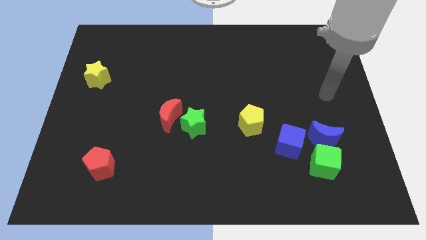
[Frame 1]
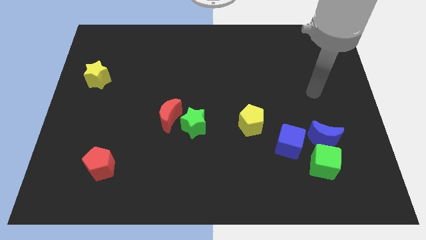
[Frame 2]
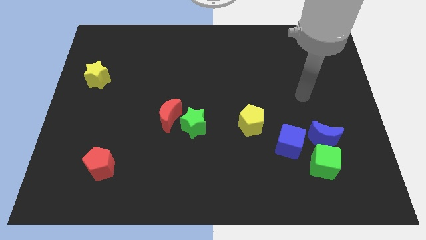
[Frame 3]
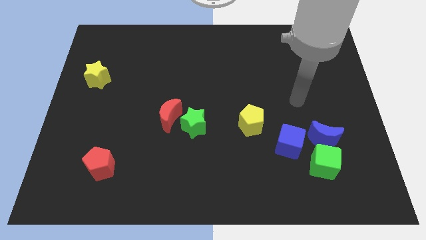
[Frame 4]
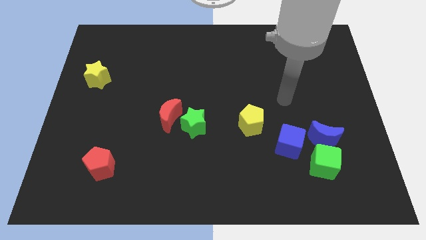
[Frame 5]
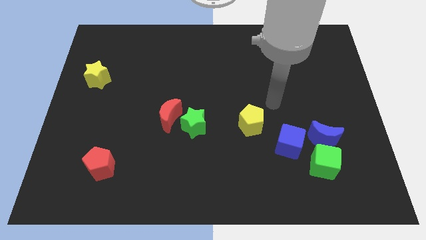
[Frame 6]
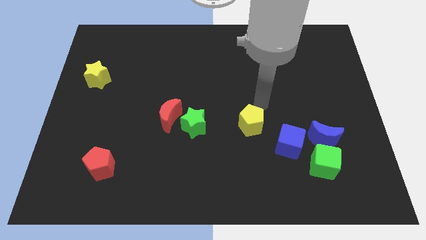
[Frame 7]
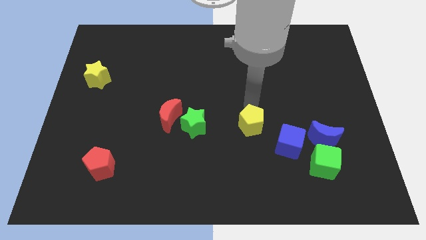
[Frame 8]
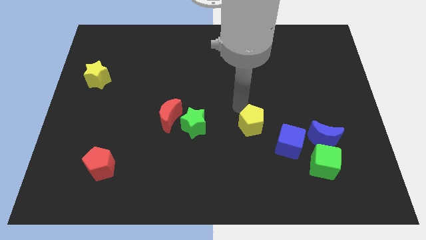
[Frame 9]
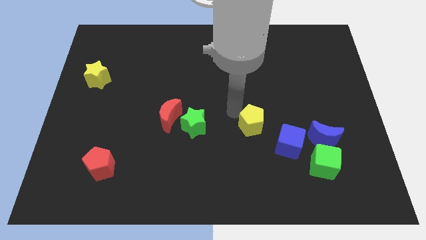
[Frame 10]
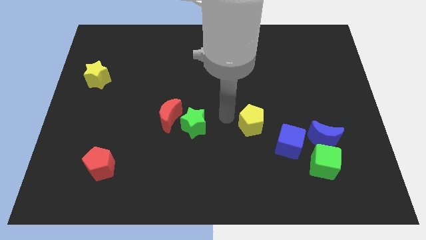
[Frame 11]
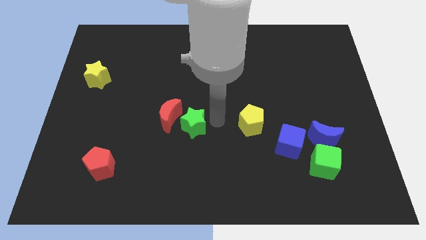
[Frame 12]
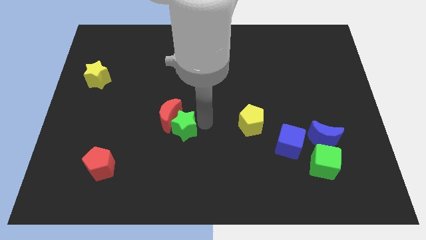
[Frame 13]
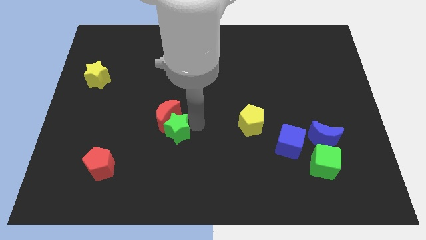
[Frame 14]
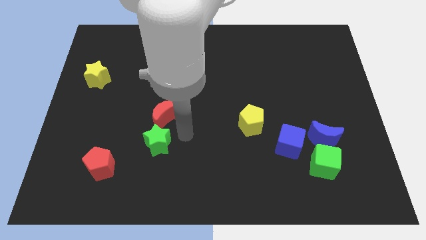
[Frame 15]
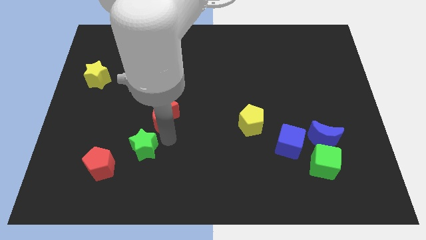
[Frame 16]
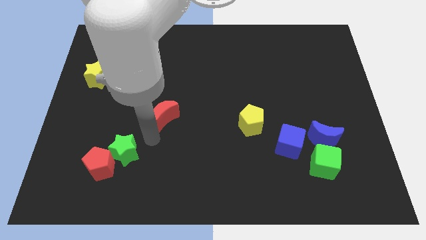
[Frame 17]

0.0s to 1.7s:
pull the red moon apart from the green star

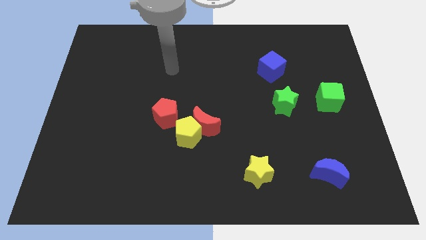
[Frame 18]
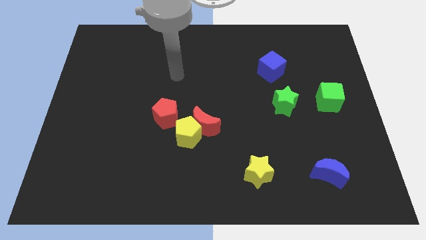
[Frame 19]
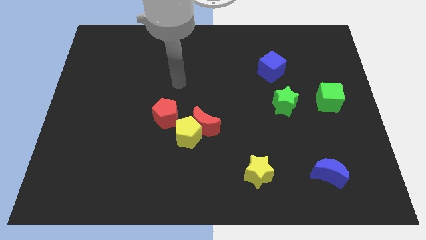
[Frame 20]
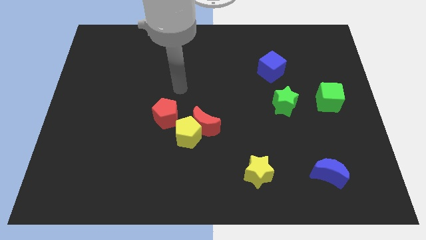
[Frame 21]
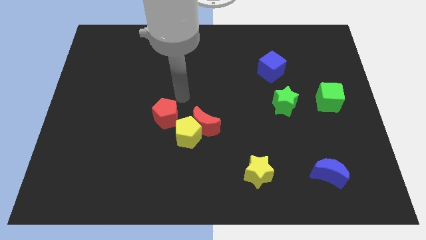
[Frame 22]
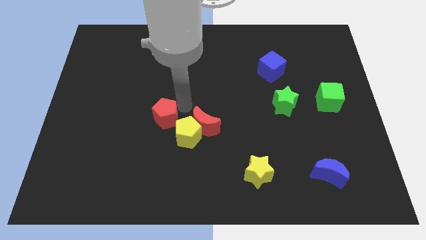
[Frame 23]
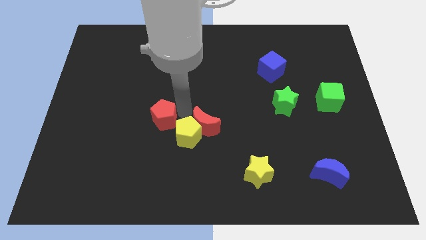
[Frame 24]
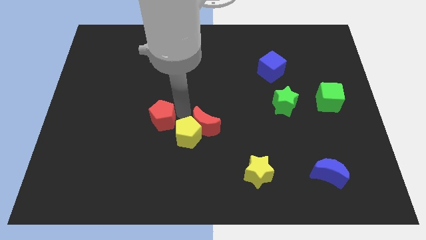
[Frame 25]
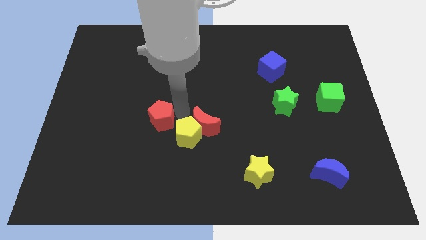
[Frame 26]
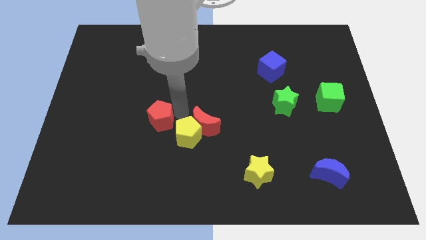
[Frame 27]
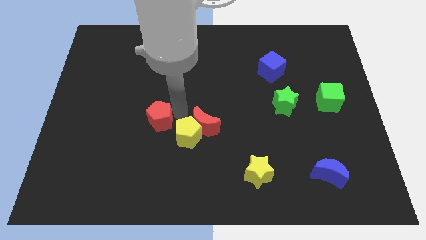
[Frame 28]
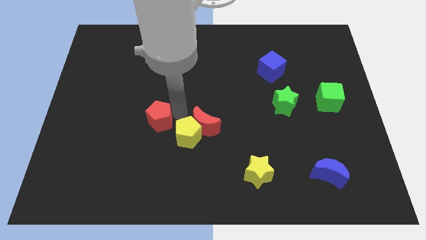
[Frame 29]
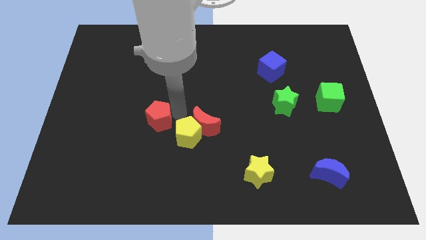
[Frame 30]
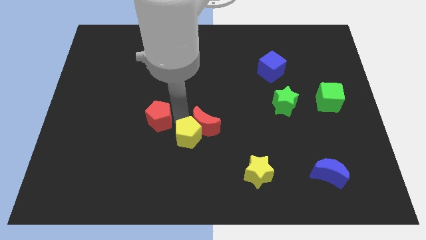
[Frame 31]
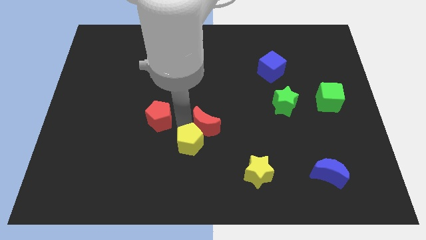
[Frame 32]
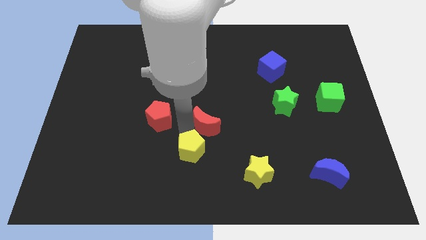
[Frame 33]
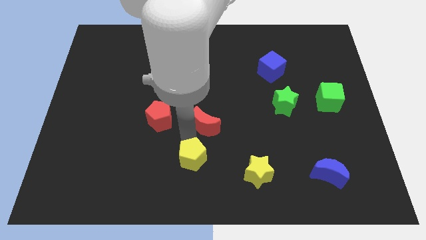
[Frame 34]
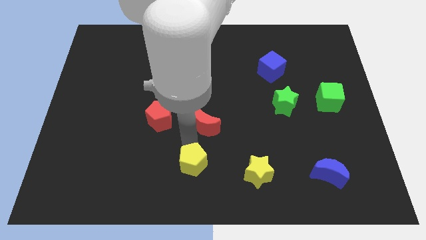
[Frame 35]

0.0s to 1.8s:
move the yellow pentagon away from the red moon and red pentagon

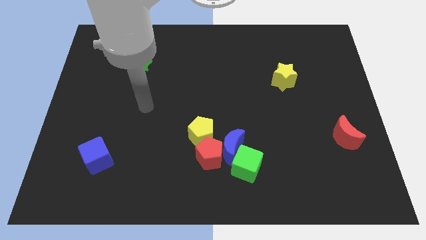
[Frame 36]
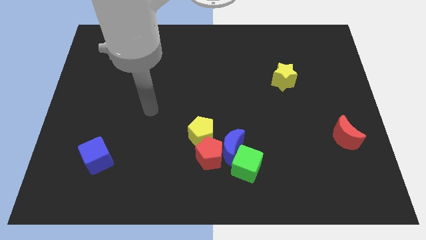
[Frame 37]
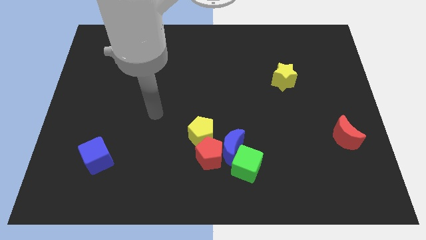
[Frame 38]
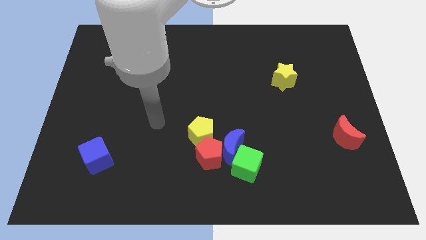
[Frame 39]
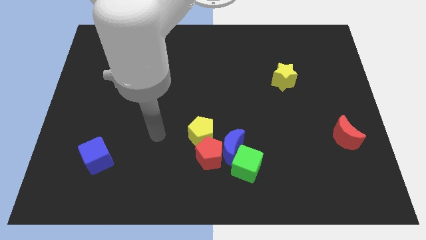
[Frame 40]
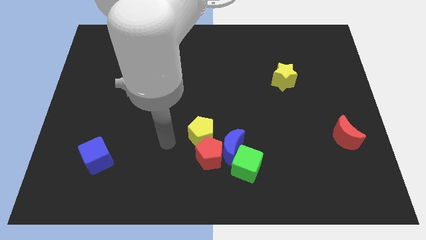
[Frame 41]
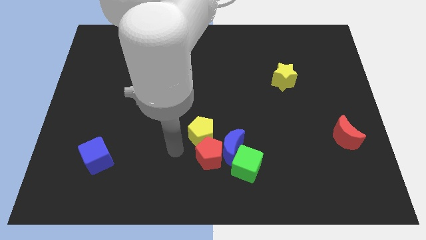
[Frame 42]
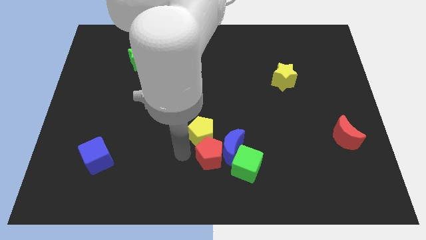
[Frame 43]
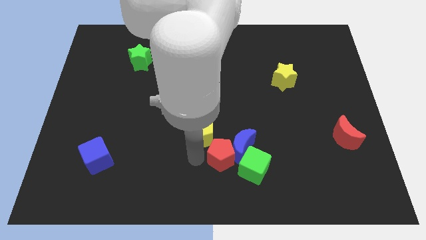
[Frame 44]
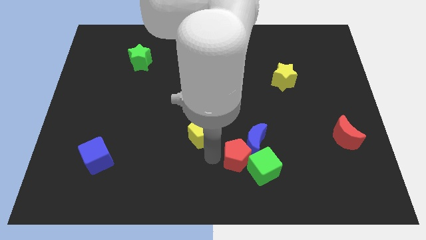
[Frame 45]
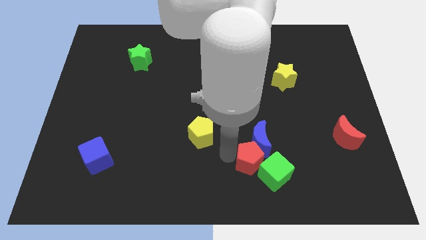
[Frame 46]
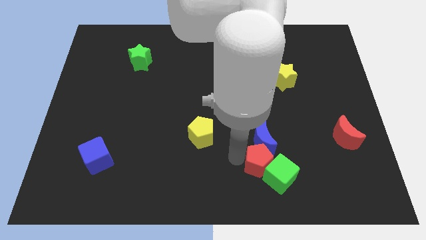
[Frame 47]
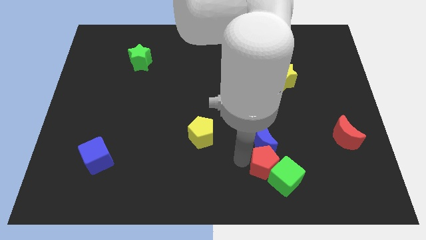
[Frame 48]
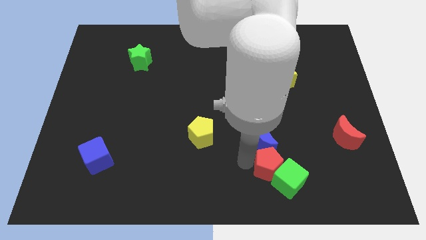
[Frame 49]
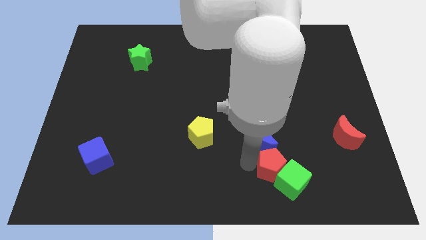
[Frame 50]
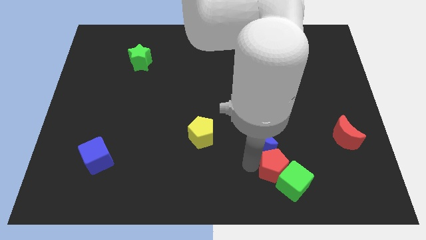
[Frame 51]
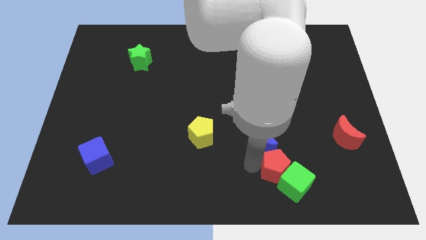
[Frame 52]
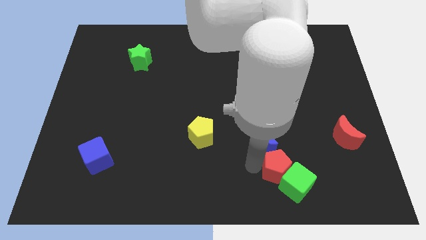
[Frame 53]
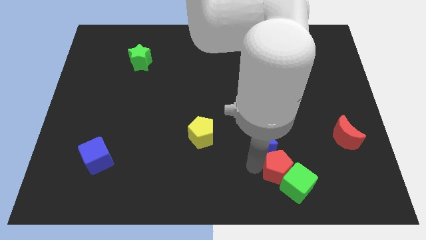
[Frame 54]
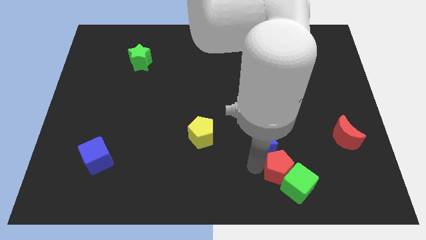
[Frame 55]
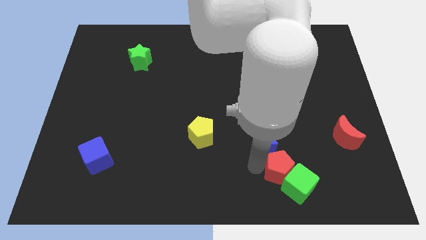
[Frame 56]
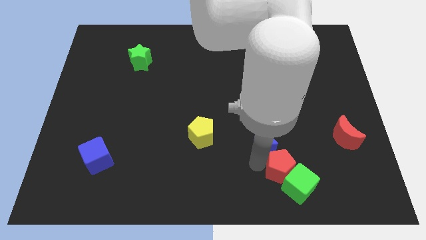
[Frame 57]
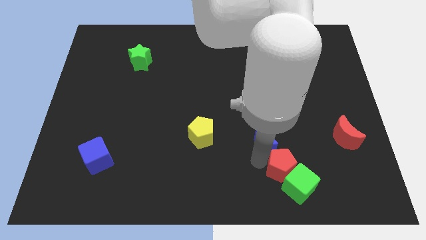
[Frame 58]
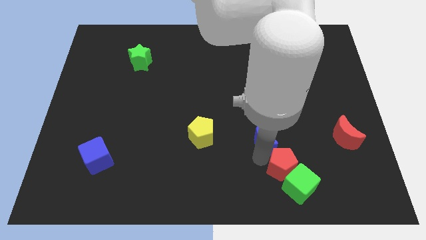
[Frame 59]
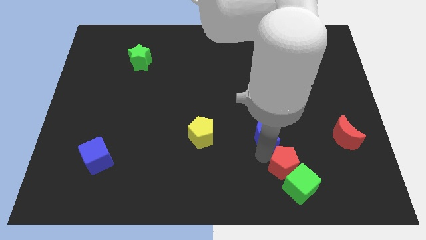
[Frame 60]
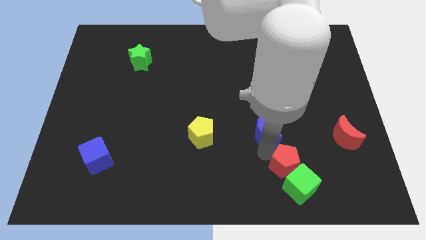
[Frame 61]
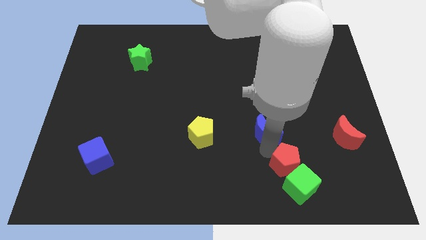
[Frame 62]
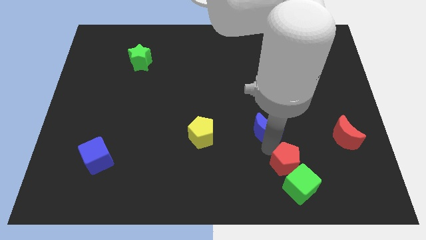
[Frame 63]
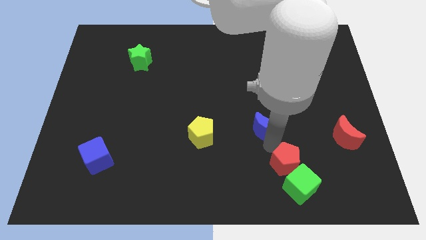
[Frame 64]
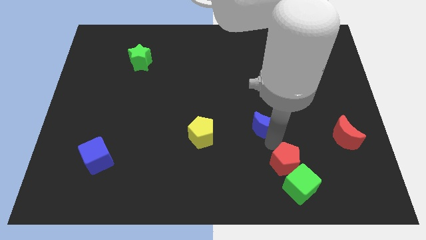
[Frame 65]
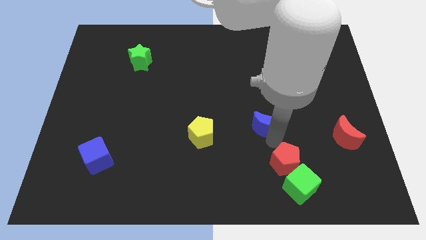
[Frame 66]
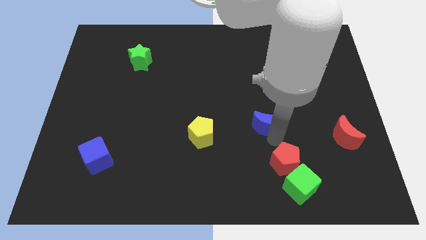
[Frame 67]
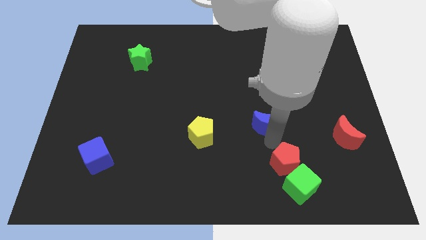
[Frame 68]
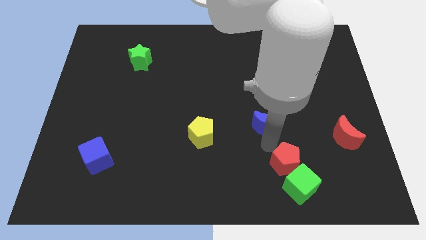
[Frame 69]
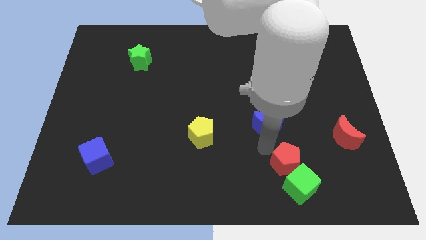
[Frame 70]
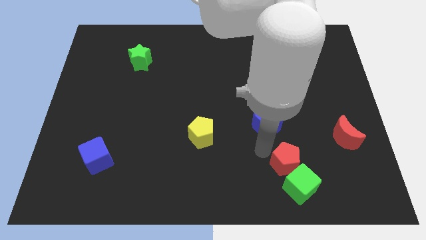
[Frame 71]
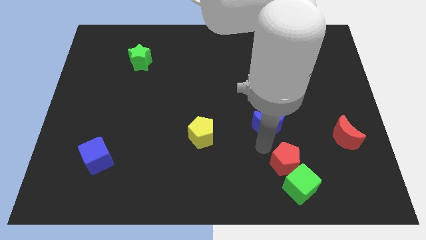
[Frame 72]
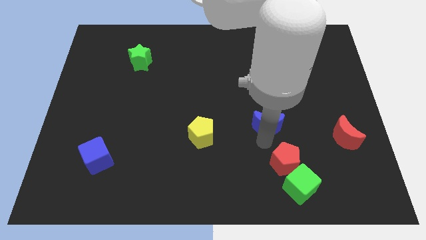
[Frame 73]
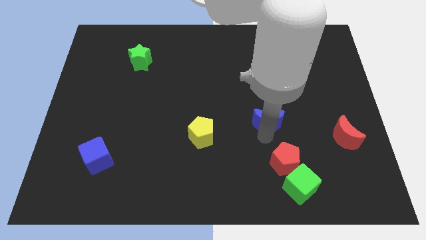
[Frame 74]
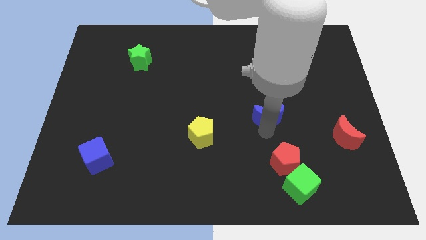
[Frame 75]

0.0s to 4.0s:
move the blue moon away from the group

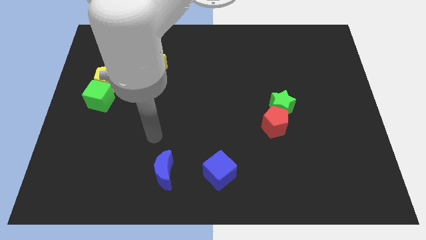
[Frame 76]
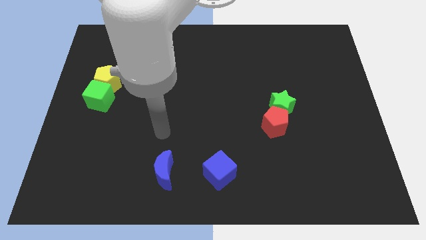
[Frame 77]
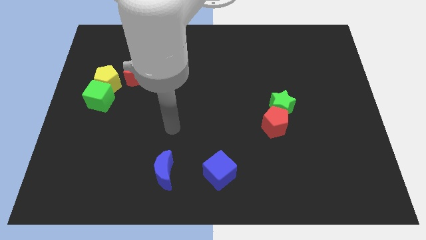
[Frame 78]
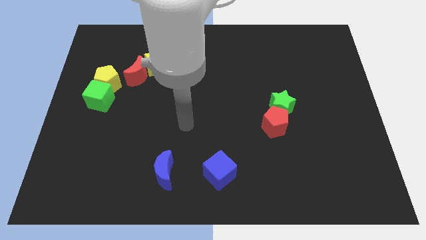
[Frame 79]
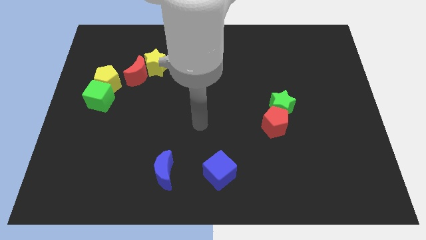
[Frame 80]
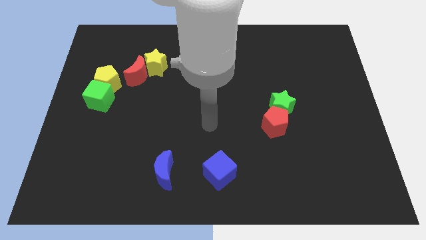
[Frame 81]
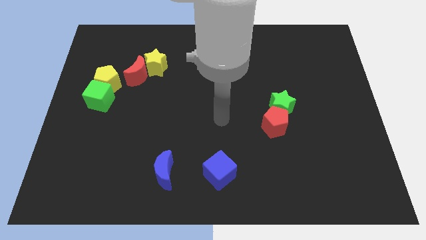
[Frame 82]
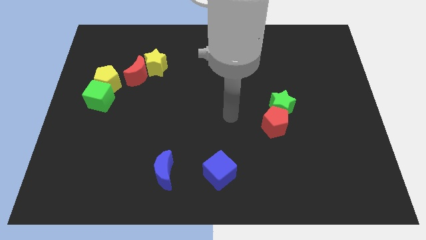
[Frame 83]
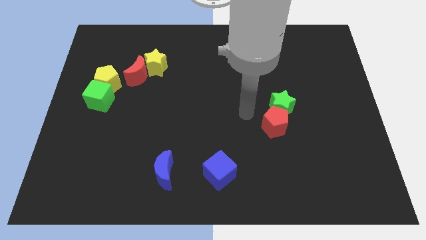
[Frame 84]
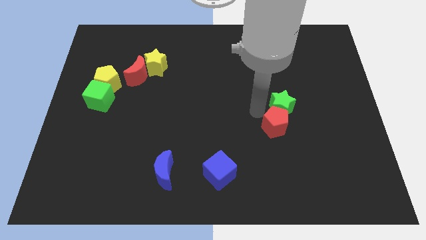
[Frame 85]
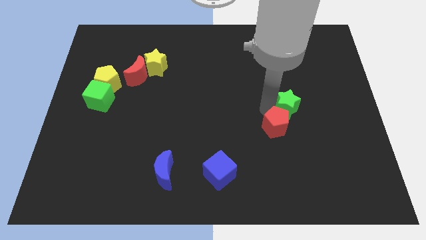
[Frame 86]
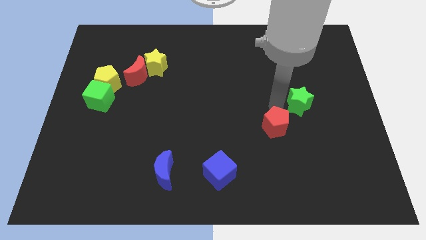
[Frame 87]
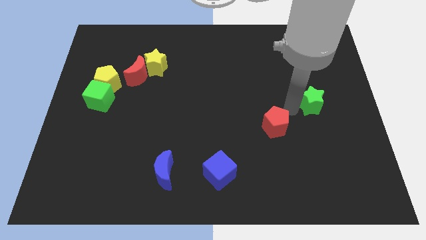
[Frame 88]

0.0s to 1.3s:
pull the red pentagon apart from the green star

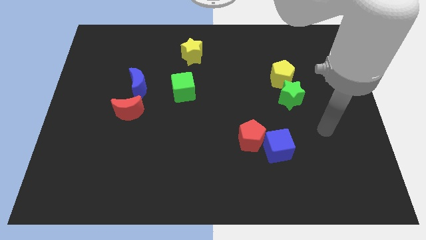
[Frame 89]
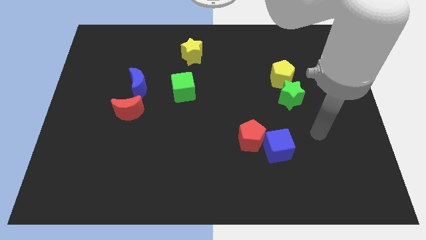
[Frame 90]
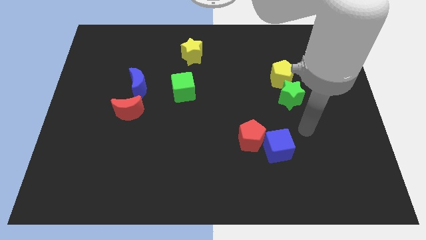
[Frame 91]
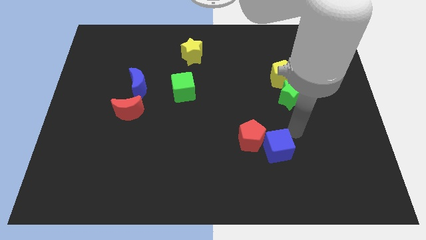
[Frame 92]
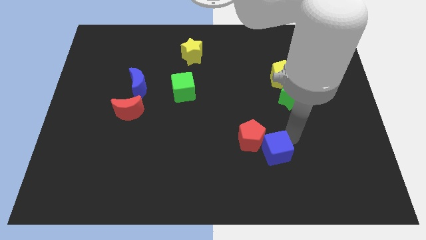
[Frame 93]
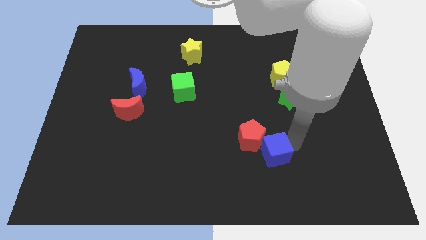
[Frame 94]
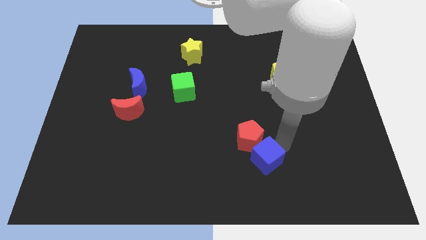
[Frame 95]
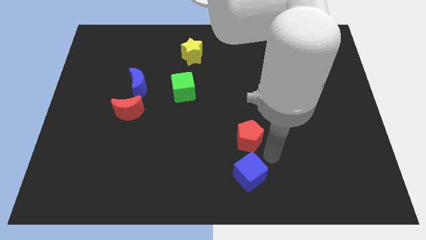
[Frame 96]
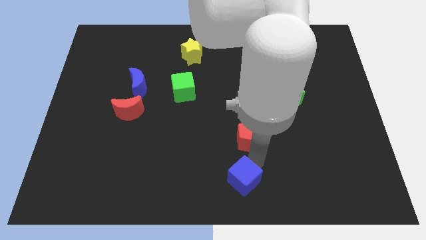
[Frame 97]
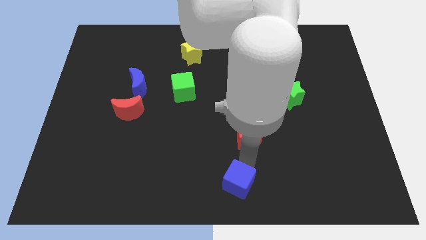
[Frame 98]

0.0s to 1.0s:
pull the red pentagon apart from the blue cube
